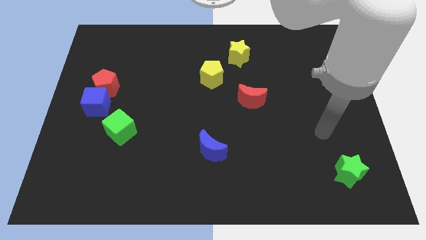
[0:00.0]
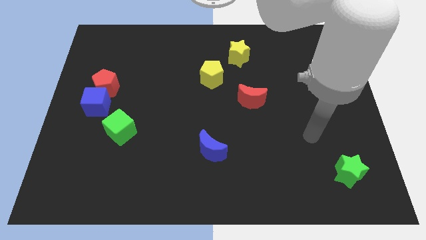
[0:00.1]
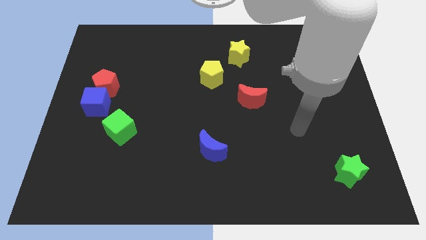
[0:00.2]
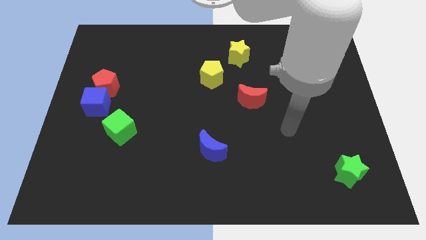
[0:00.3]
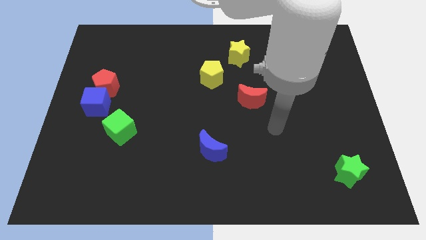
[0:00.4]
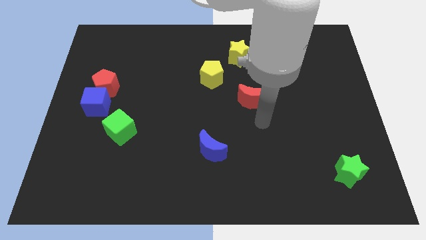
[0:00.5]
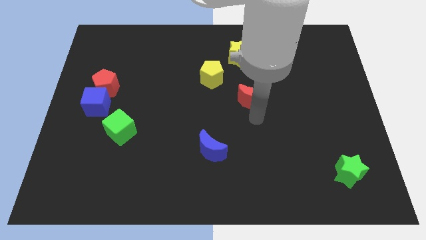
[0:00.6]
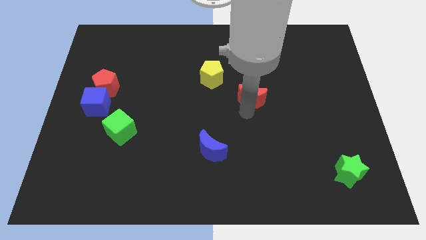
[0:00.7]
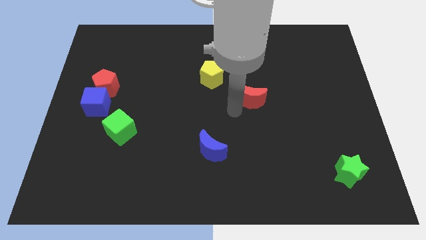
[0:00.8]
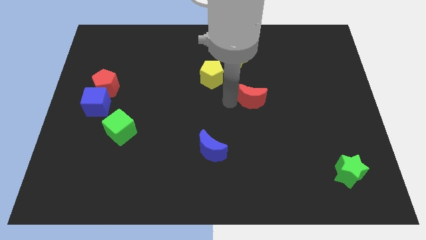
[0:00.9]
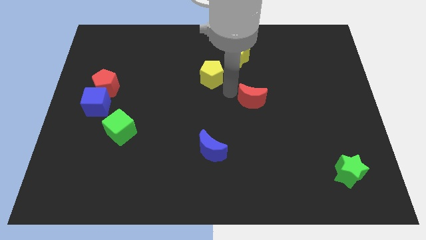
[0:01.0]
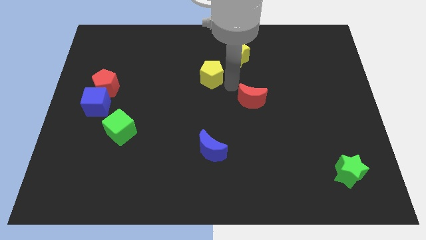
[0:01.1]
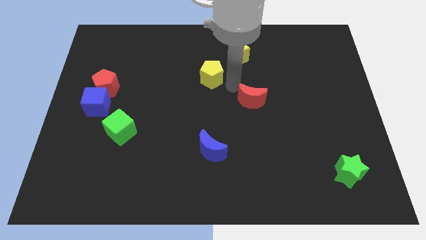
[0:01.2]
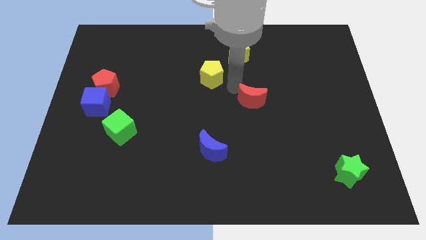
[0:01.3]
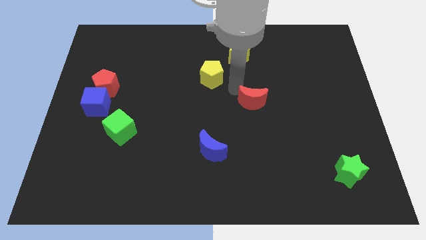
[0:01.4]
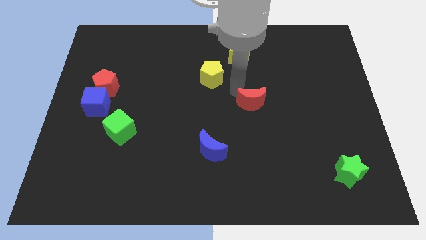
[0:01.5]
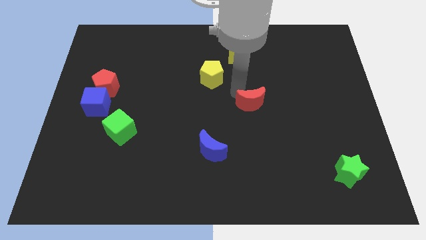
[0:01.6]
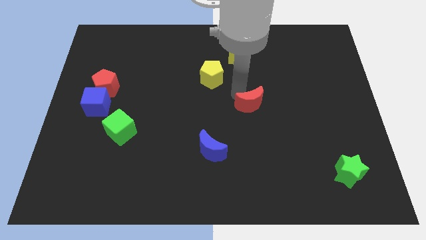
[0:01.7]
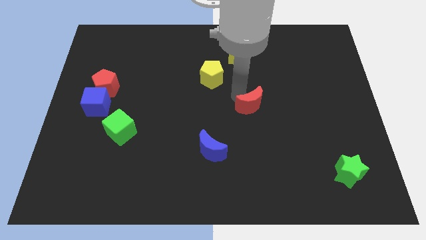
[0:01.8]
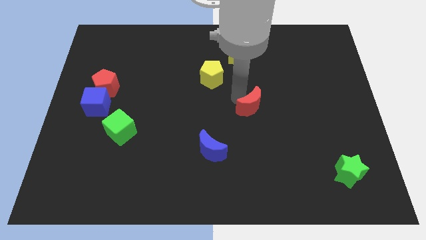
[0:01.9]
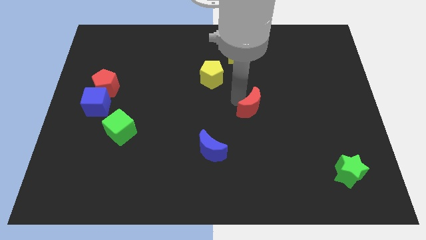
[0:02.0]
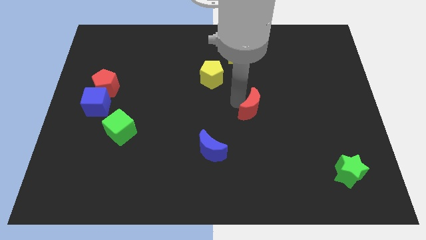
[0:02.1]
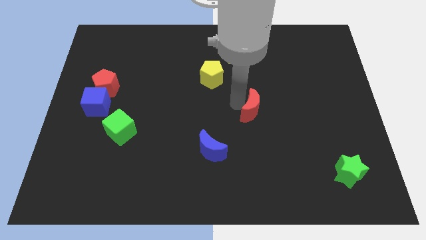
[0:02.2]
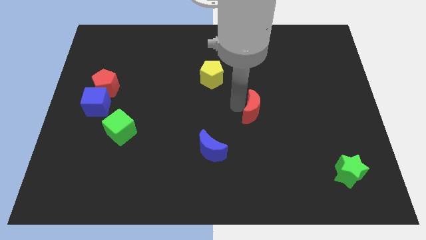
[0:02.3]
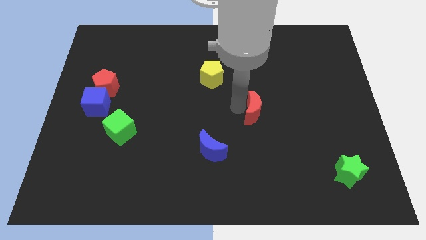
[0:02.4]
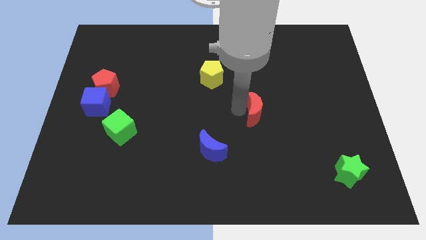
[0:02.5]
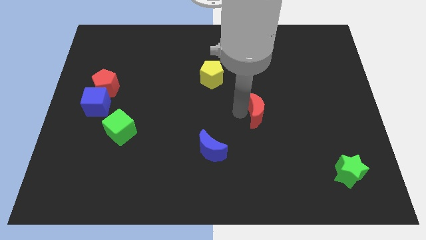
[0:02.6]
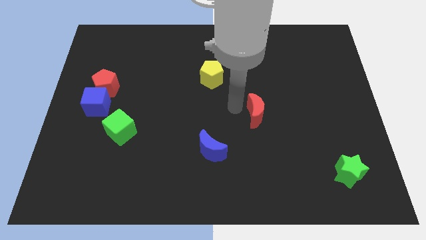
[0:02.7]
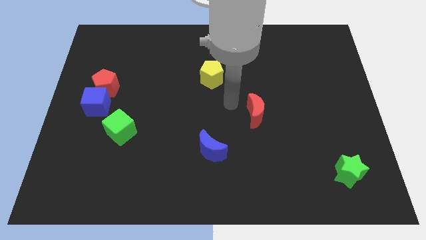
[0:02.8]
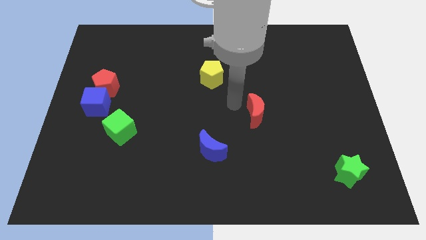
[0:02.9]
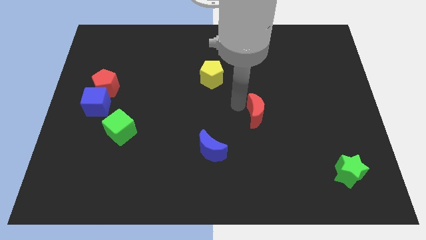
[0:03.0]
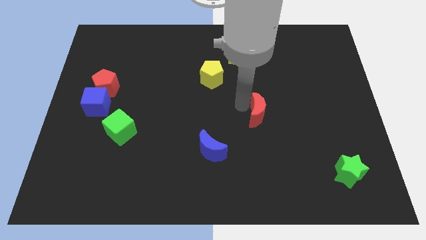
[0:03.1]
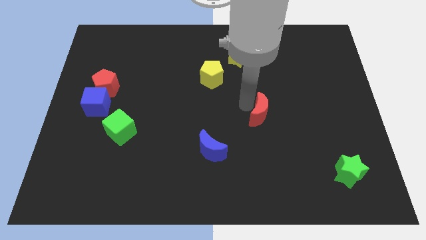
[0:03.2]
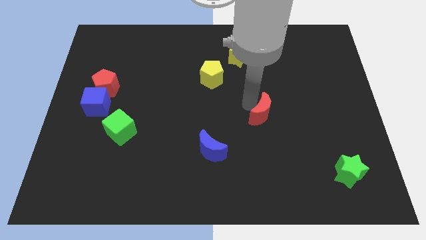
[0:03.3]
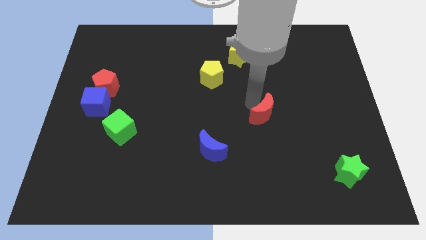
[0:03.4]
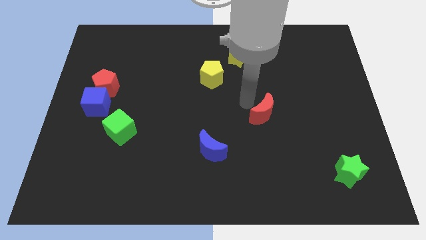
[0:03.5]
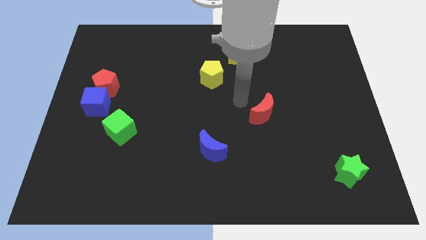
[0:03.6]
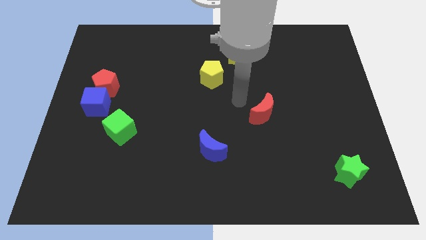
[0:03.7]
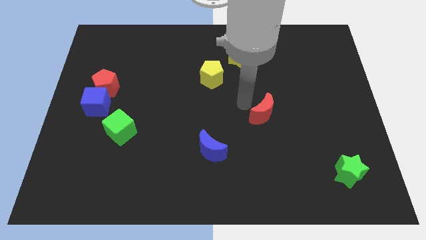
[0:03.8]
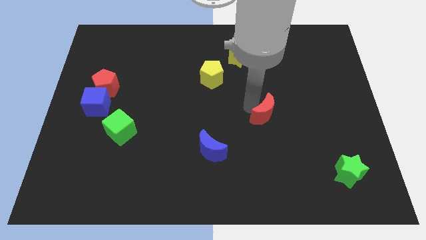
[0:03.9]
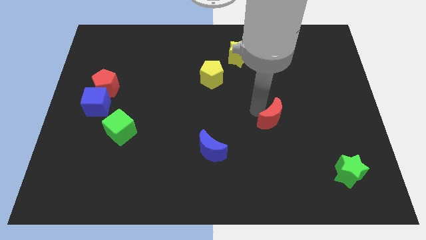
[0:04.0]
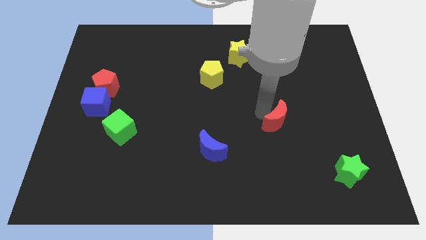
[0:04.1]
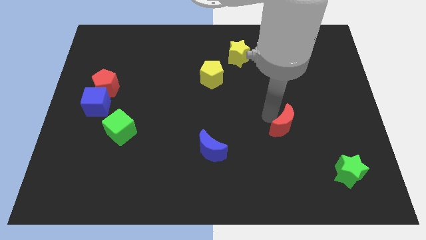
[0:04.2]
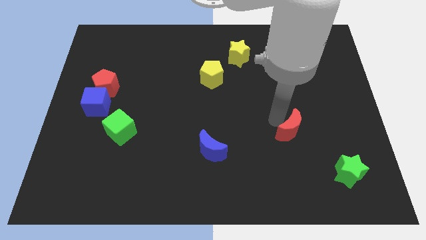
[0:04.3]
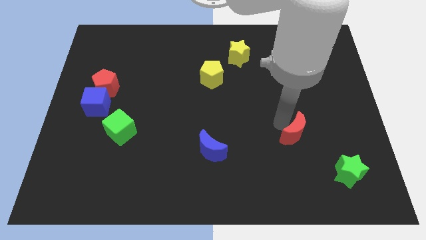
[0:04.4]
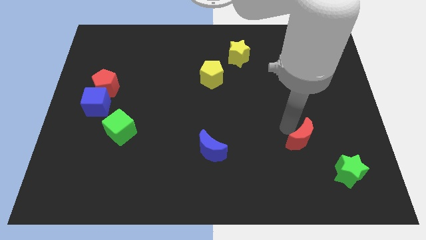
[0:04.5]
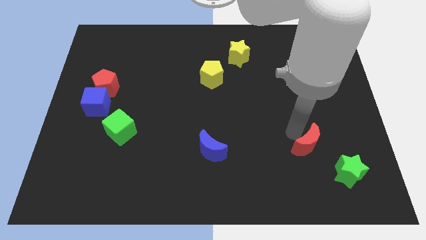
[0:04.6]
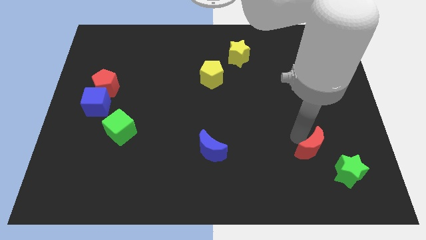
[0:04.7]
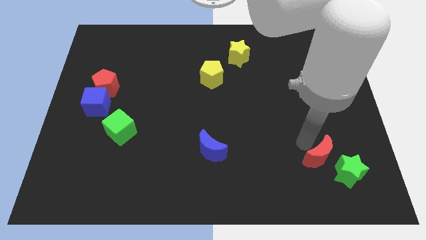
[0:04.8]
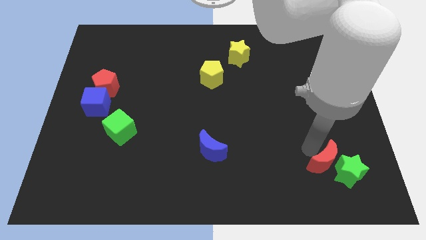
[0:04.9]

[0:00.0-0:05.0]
move the red moon next to the green star

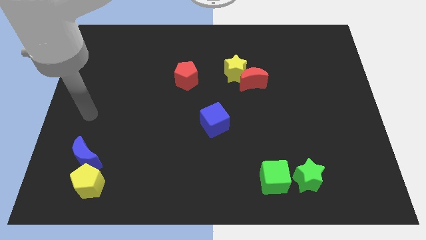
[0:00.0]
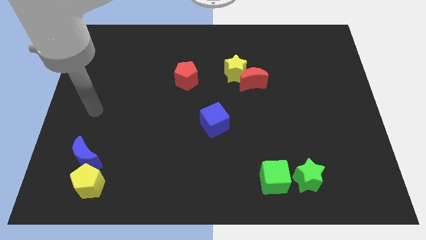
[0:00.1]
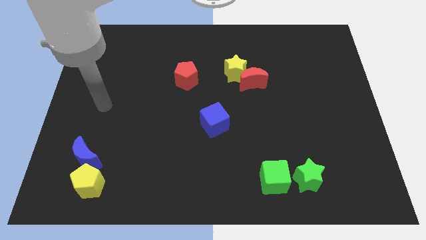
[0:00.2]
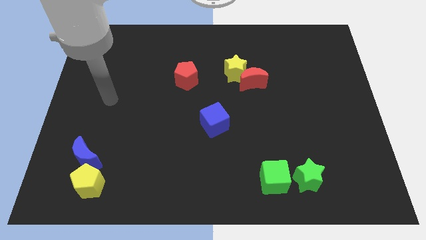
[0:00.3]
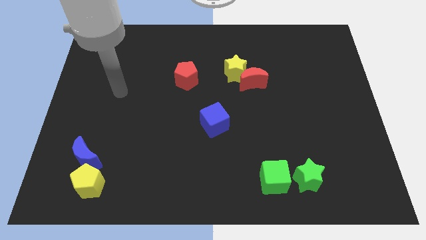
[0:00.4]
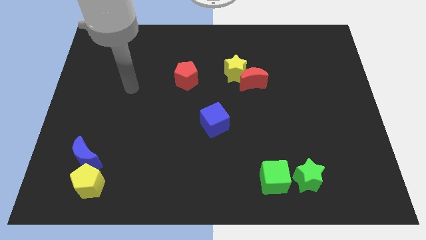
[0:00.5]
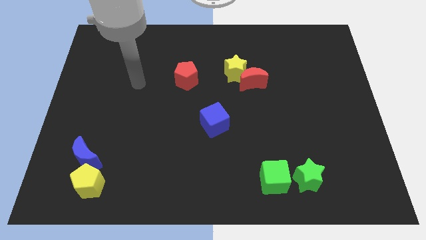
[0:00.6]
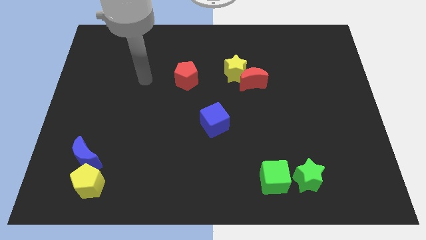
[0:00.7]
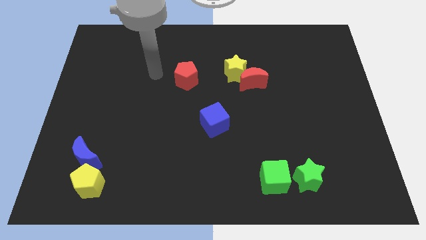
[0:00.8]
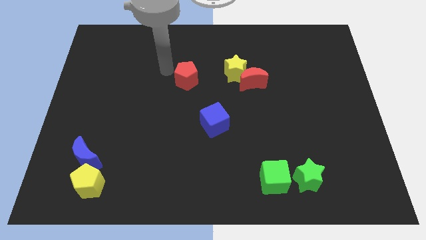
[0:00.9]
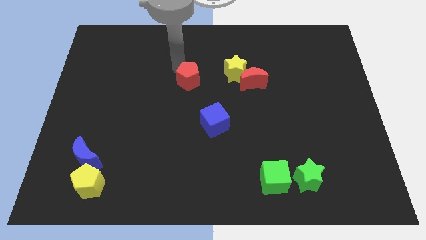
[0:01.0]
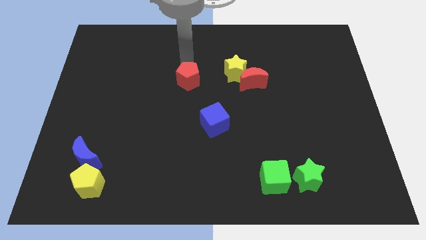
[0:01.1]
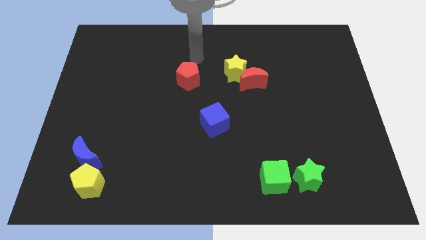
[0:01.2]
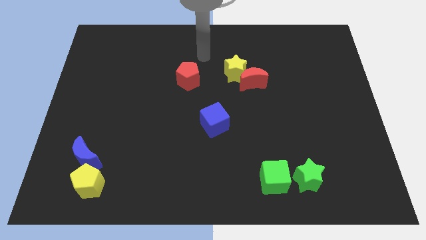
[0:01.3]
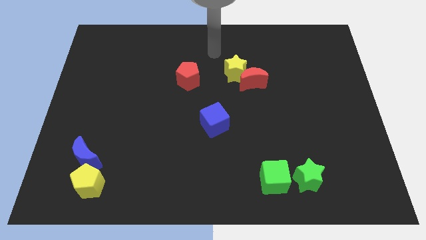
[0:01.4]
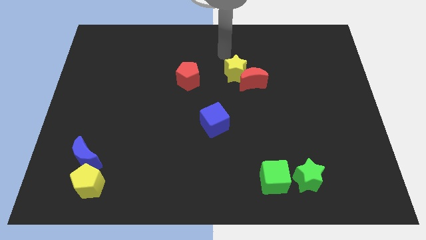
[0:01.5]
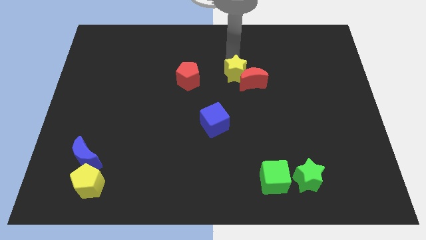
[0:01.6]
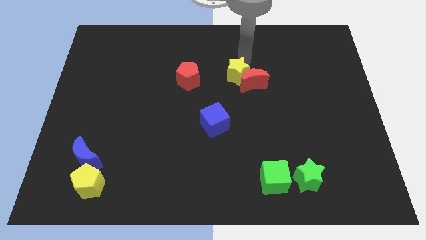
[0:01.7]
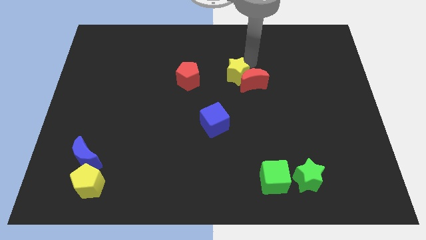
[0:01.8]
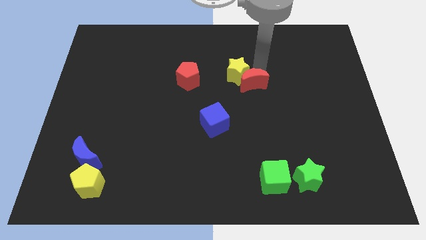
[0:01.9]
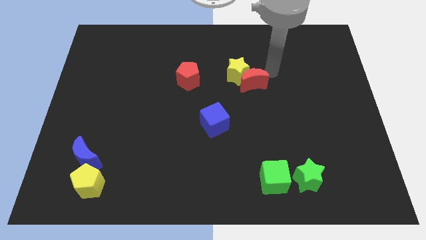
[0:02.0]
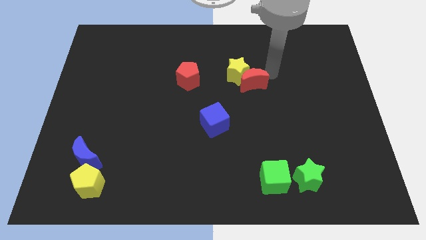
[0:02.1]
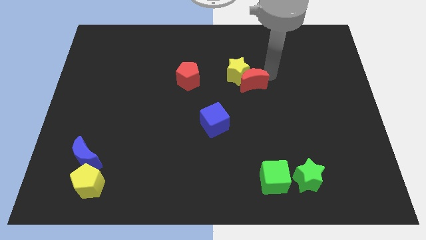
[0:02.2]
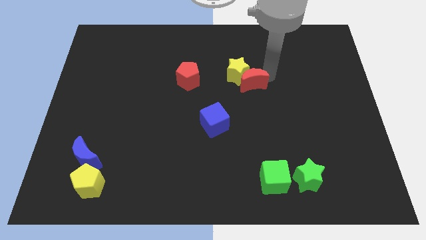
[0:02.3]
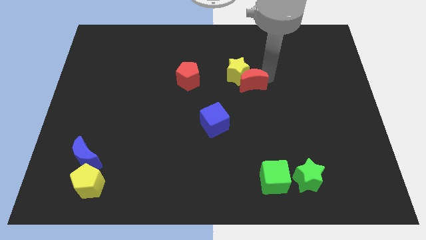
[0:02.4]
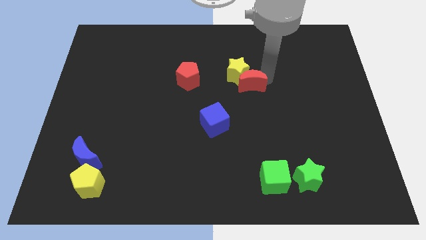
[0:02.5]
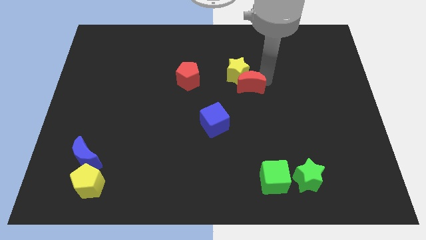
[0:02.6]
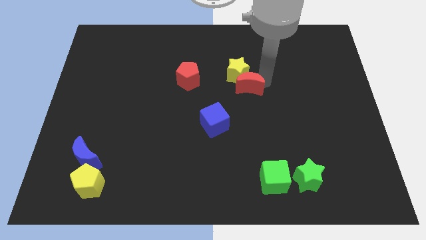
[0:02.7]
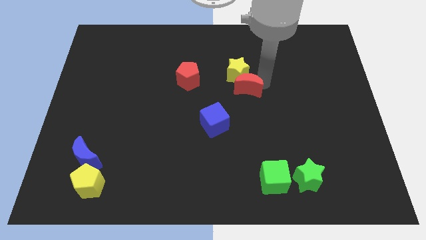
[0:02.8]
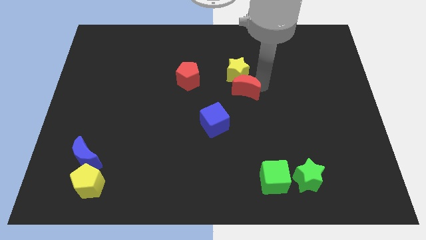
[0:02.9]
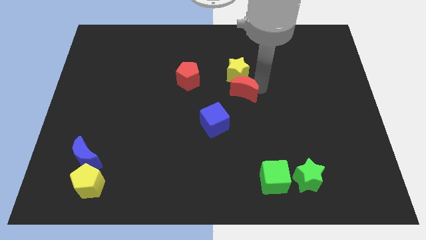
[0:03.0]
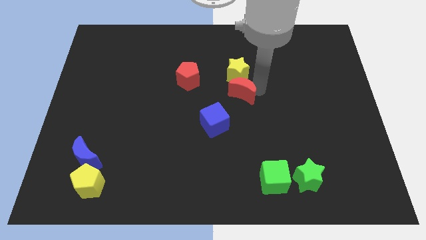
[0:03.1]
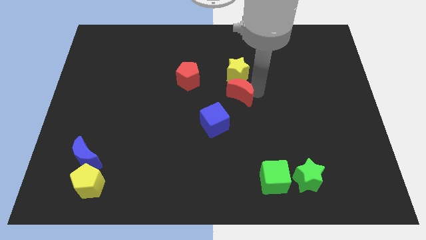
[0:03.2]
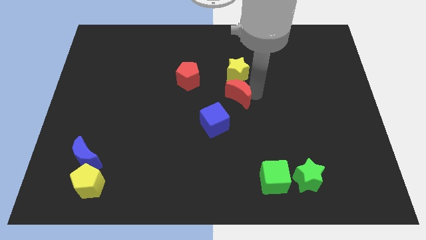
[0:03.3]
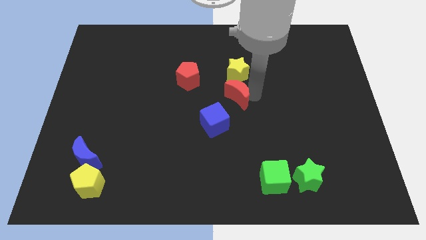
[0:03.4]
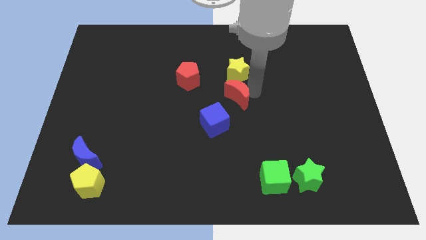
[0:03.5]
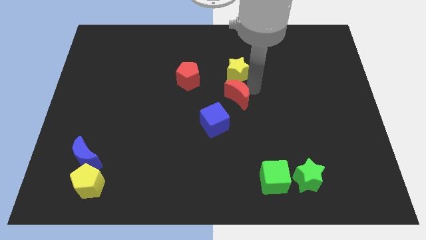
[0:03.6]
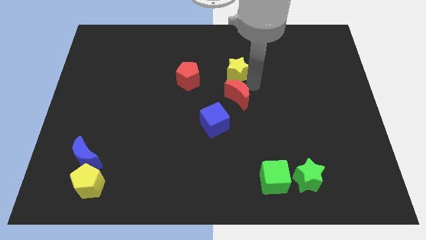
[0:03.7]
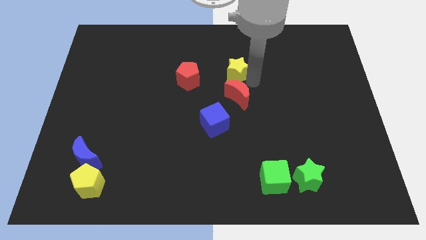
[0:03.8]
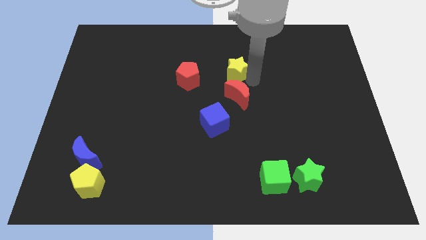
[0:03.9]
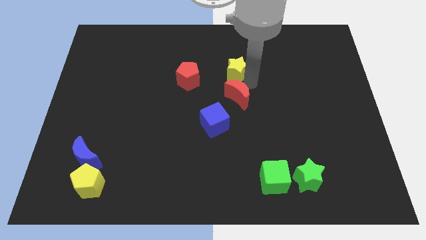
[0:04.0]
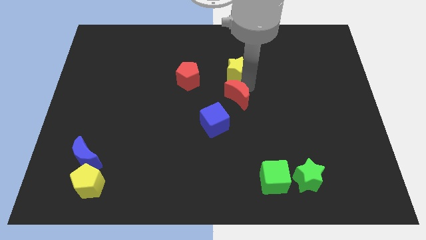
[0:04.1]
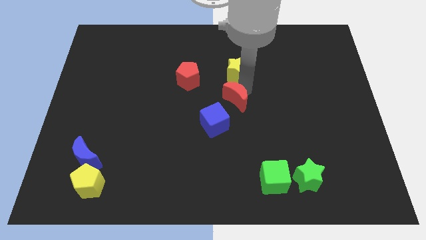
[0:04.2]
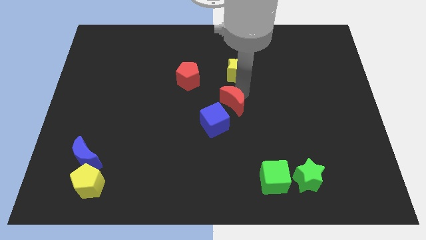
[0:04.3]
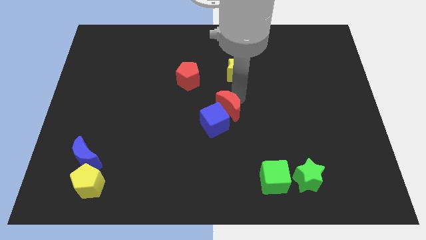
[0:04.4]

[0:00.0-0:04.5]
push the red moon to the blue cube
